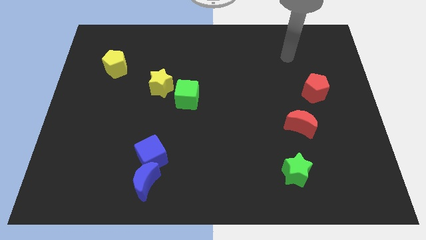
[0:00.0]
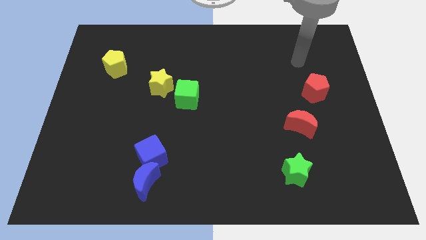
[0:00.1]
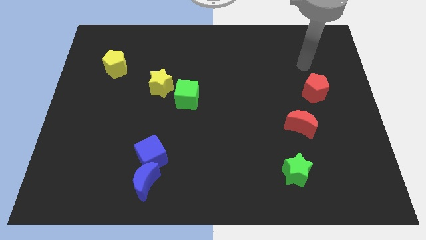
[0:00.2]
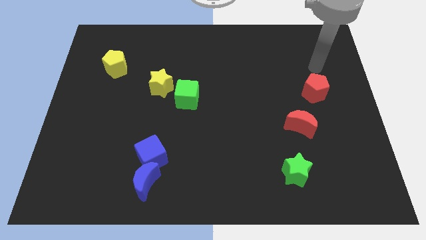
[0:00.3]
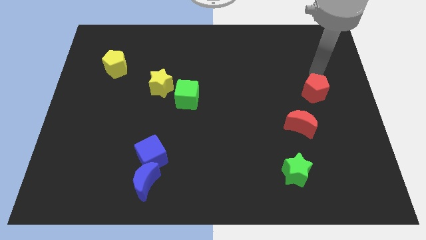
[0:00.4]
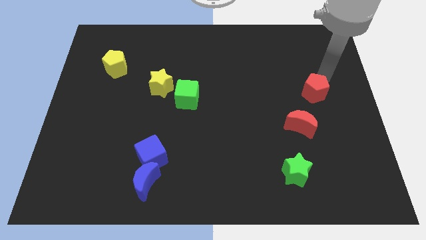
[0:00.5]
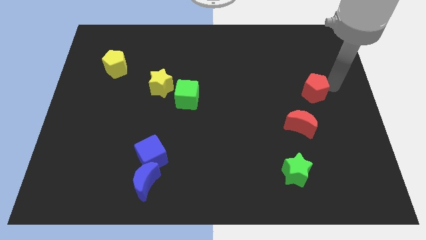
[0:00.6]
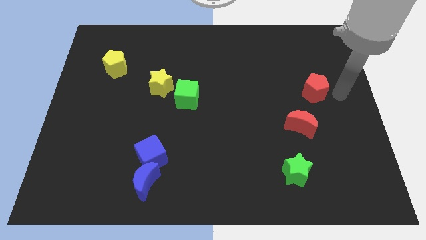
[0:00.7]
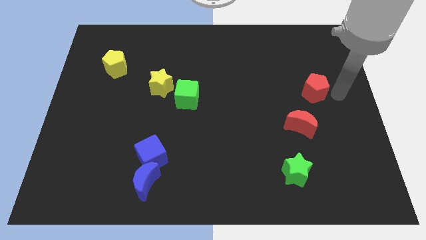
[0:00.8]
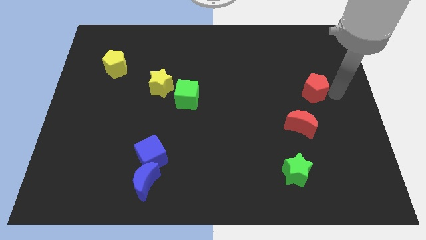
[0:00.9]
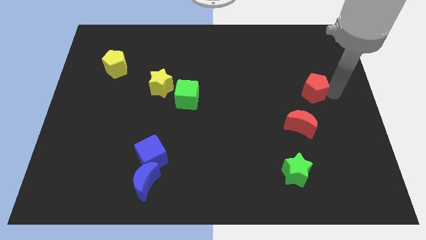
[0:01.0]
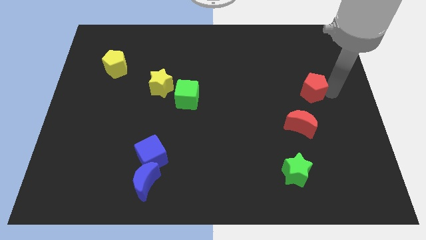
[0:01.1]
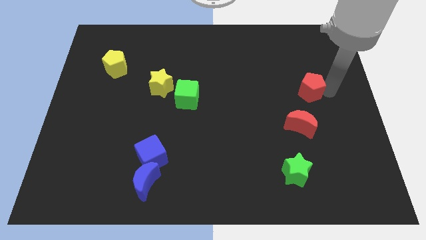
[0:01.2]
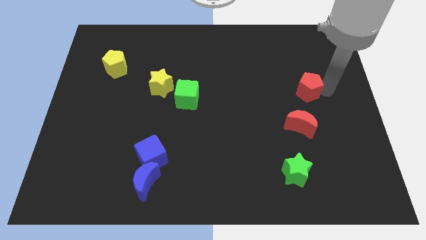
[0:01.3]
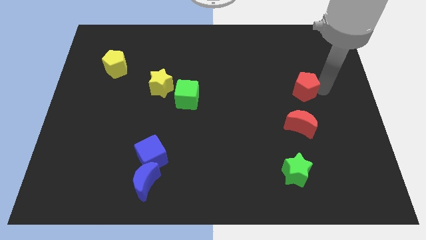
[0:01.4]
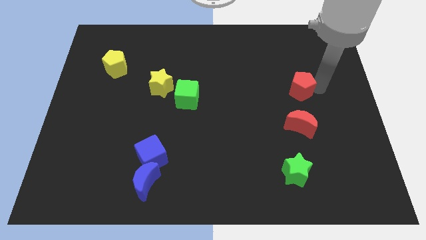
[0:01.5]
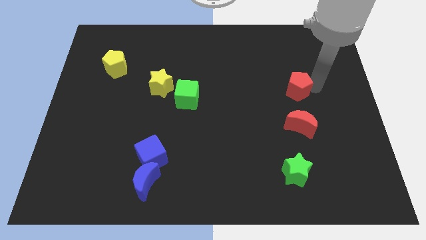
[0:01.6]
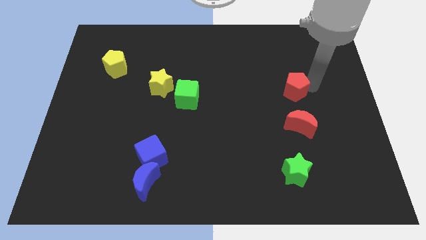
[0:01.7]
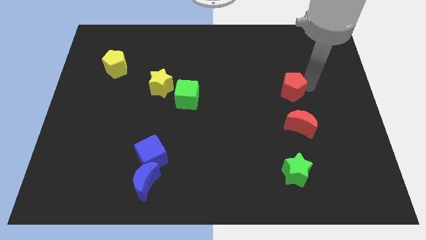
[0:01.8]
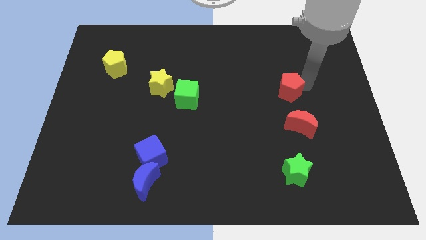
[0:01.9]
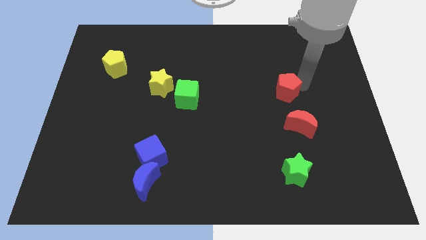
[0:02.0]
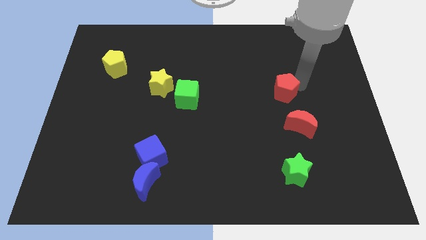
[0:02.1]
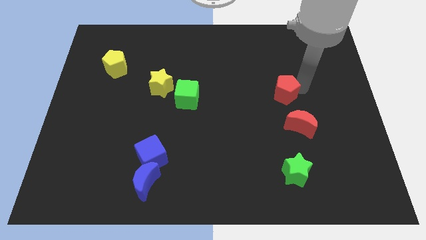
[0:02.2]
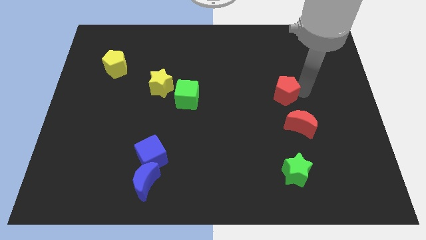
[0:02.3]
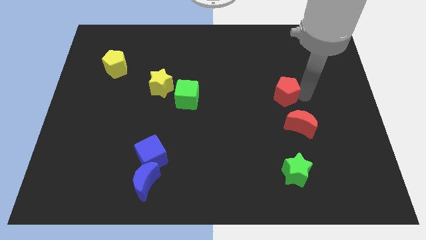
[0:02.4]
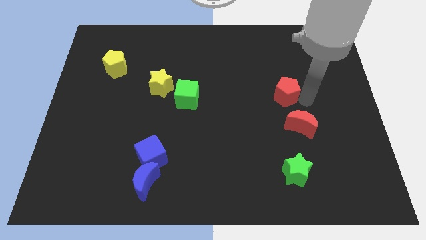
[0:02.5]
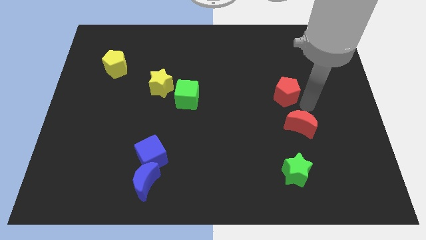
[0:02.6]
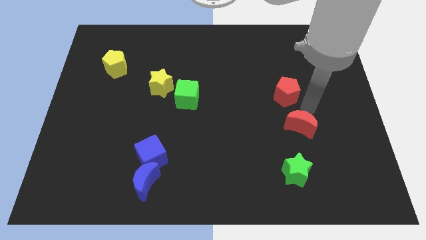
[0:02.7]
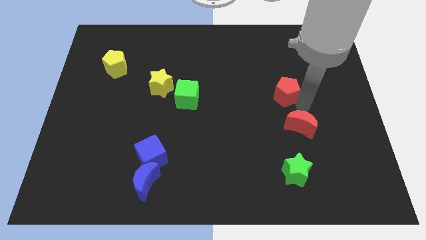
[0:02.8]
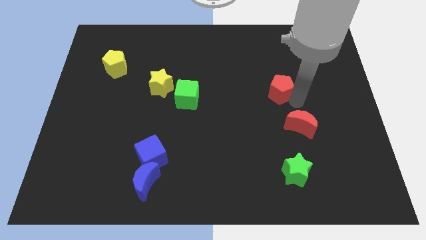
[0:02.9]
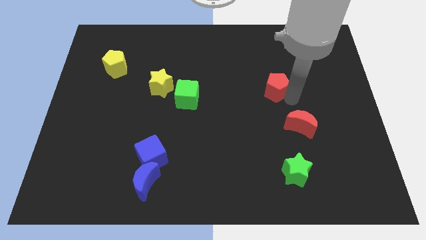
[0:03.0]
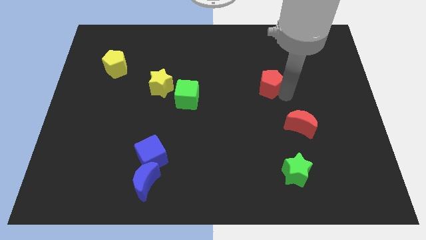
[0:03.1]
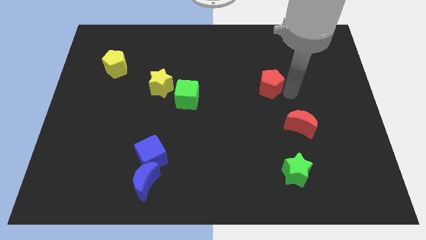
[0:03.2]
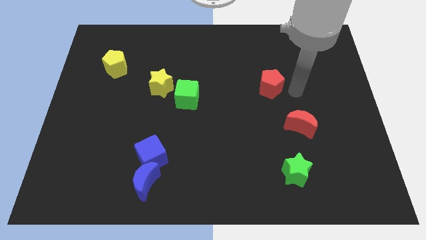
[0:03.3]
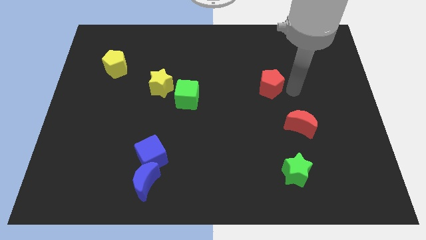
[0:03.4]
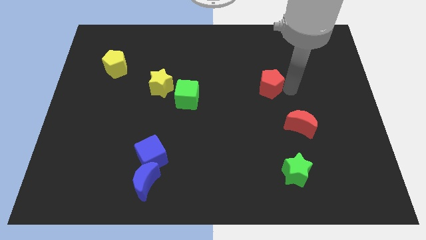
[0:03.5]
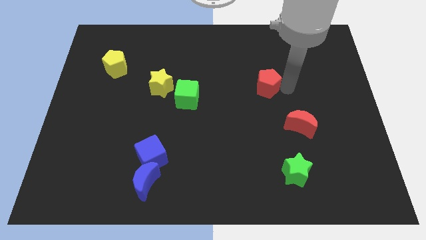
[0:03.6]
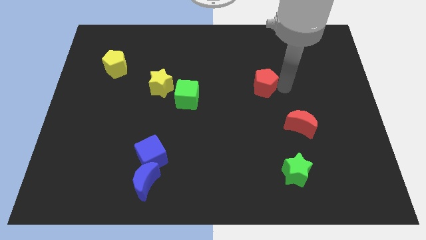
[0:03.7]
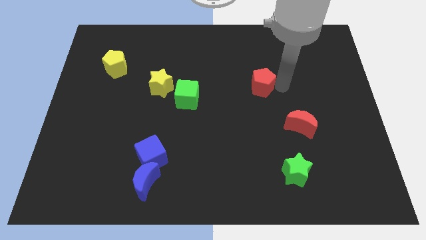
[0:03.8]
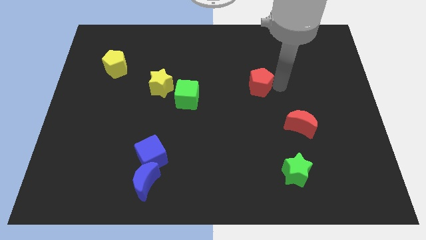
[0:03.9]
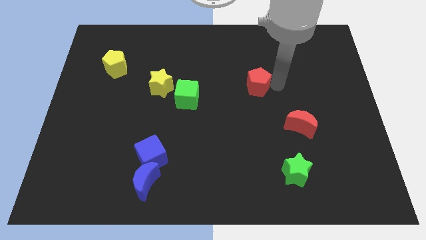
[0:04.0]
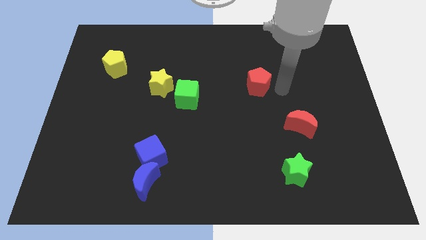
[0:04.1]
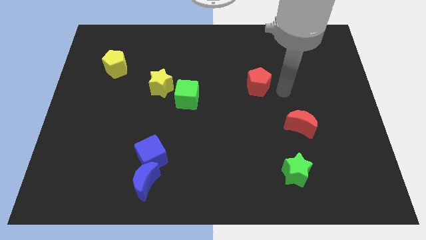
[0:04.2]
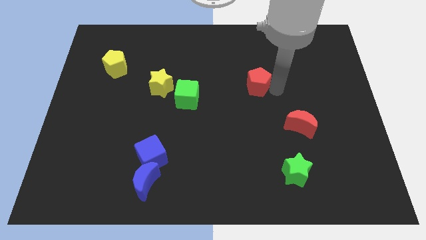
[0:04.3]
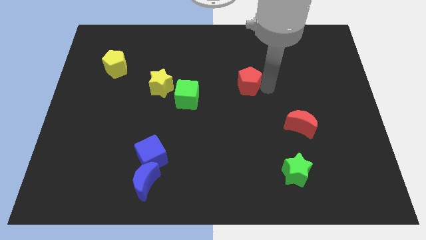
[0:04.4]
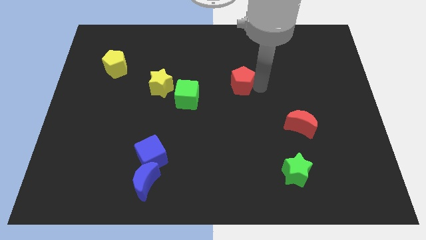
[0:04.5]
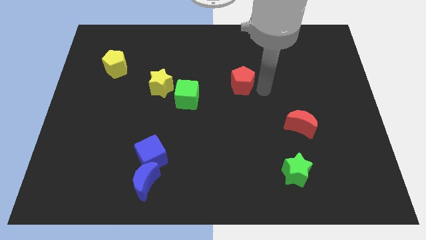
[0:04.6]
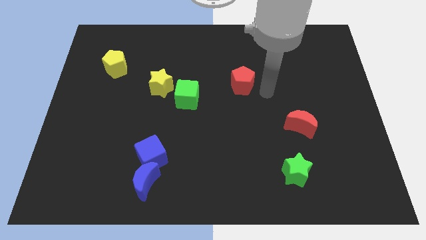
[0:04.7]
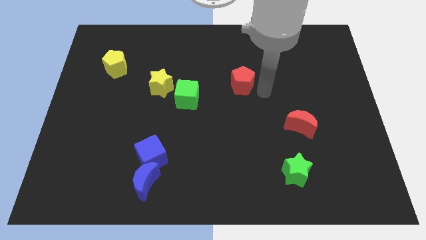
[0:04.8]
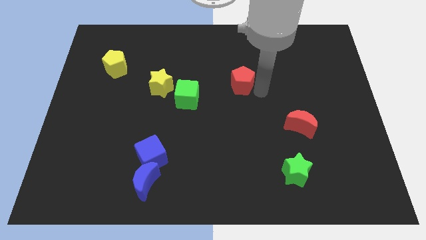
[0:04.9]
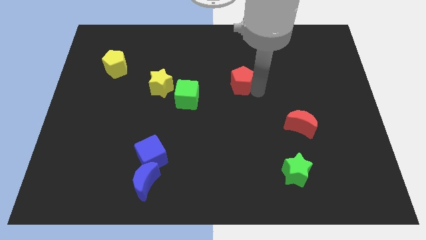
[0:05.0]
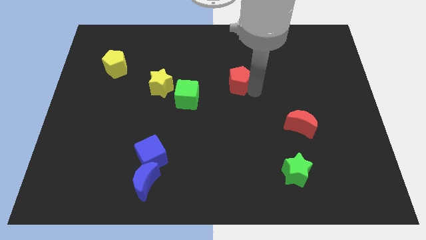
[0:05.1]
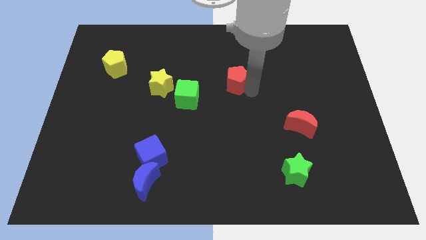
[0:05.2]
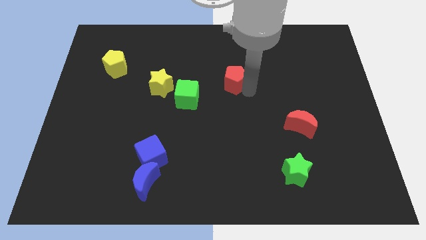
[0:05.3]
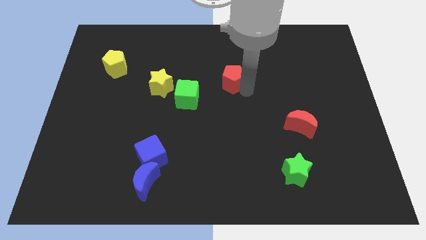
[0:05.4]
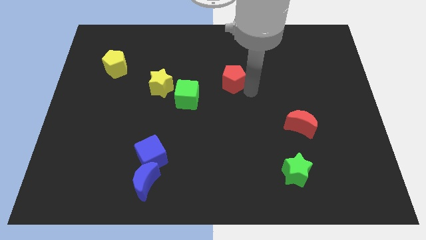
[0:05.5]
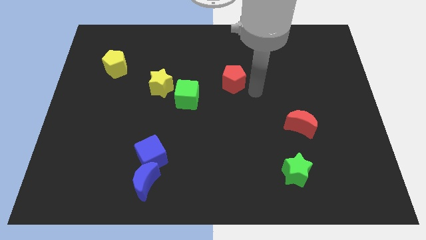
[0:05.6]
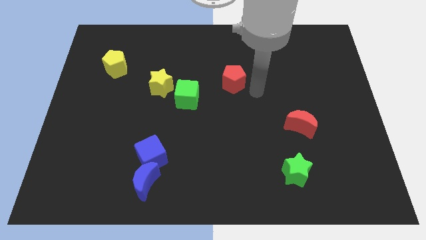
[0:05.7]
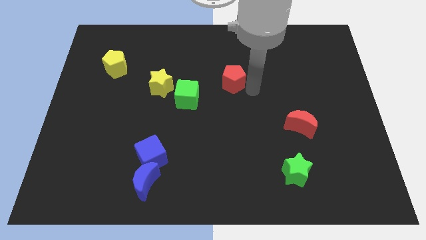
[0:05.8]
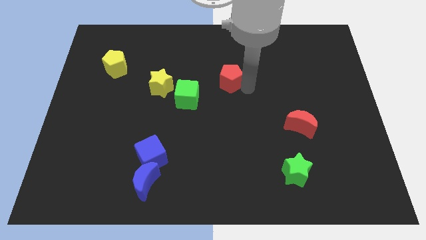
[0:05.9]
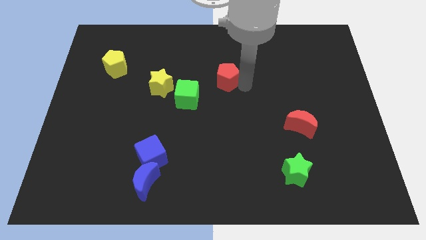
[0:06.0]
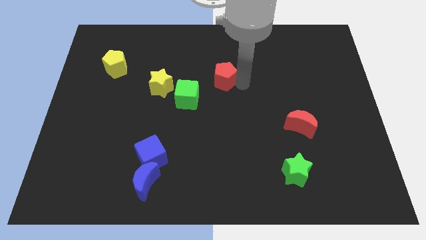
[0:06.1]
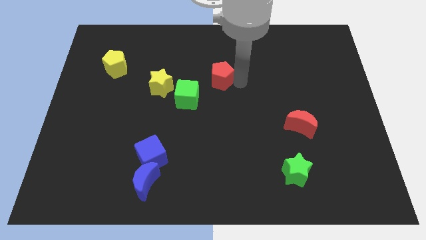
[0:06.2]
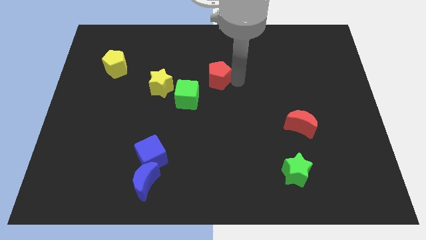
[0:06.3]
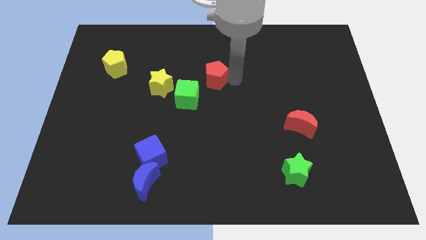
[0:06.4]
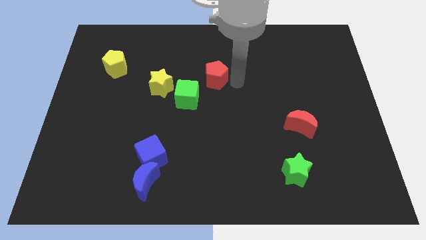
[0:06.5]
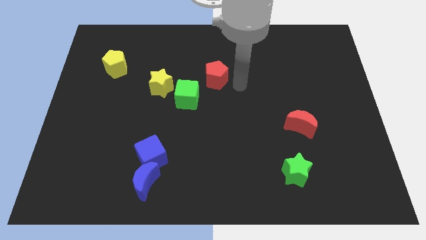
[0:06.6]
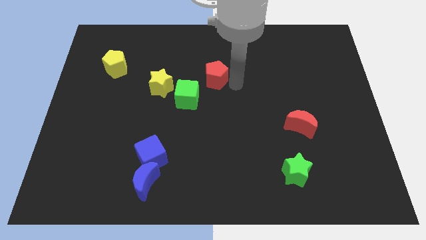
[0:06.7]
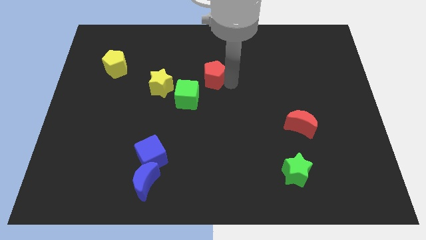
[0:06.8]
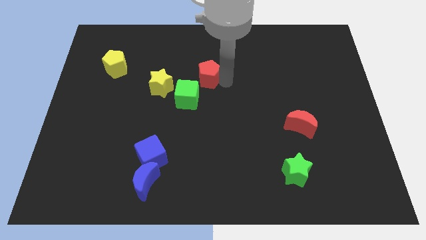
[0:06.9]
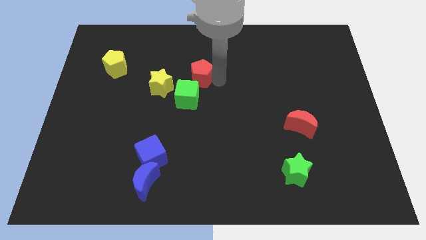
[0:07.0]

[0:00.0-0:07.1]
push the red pentagon to the top side of the green cube
